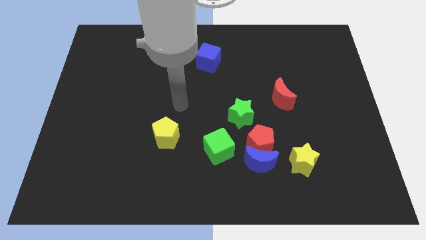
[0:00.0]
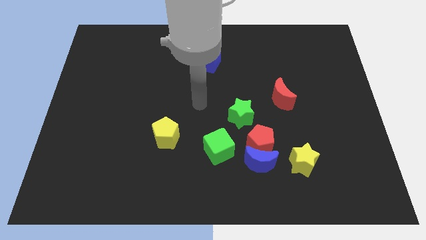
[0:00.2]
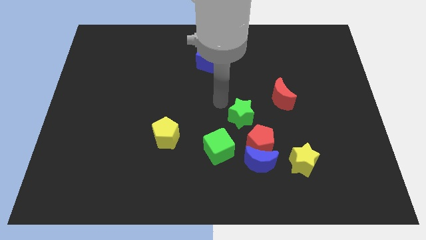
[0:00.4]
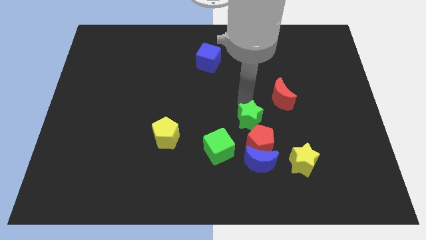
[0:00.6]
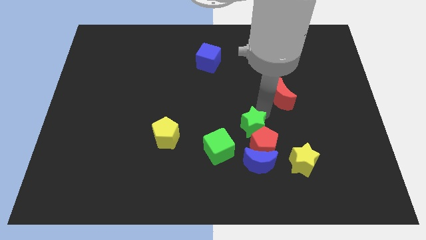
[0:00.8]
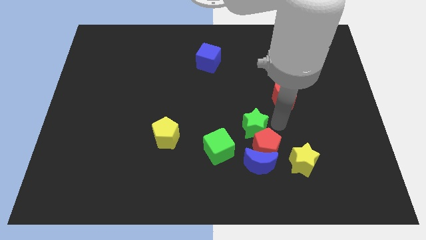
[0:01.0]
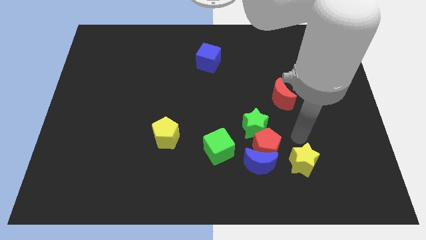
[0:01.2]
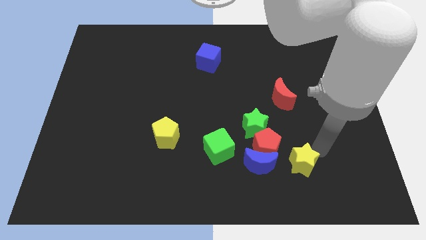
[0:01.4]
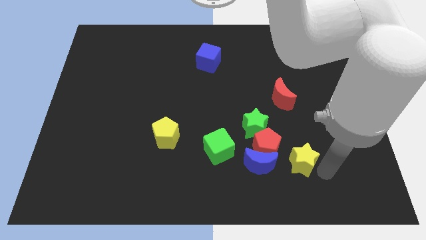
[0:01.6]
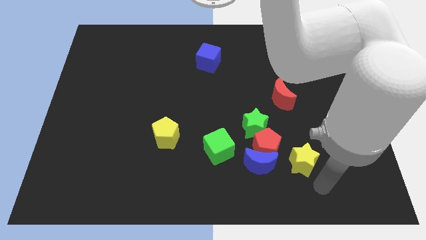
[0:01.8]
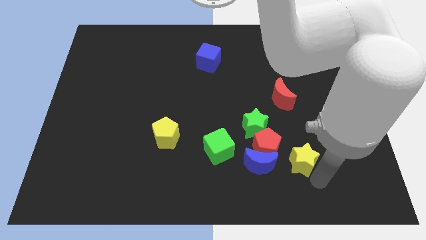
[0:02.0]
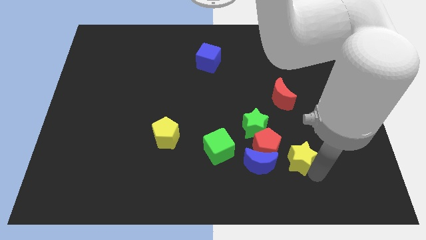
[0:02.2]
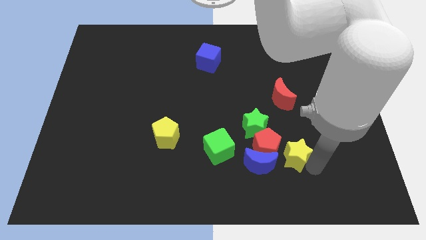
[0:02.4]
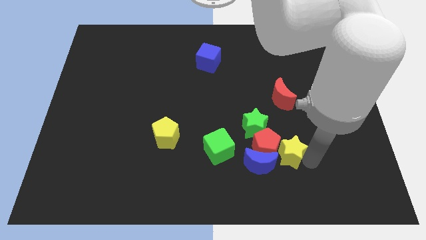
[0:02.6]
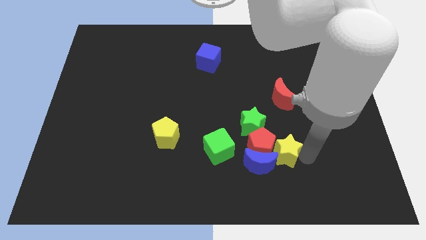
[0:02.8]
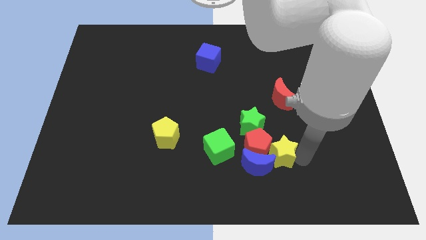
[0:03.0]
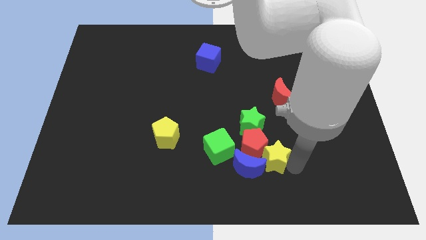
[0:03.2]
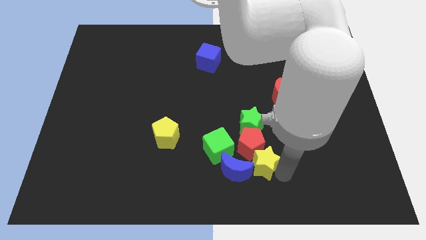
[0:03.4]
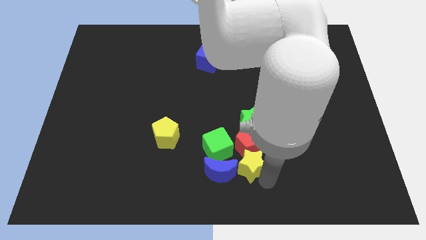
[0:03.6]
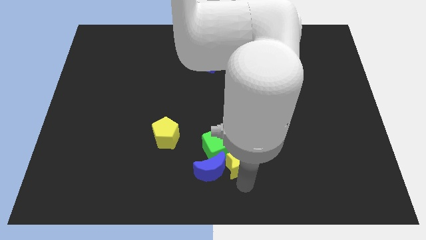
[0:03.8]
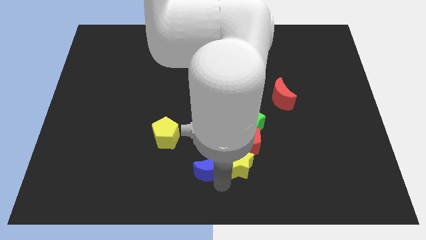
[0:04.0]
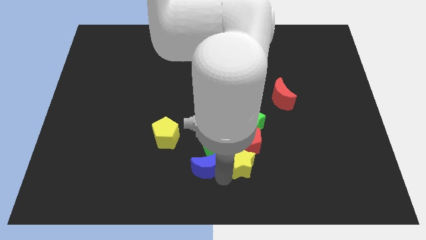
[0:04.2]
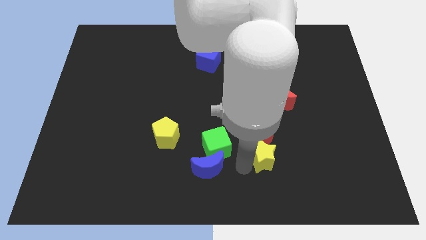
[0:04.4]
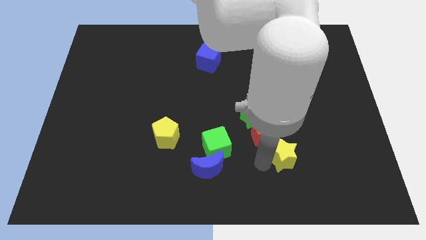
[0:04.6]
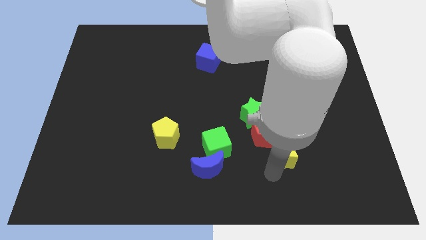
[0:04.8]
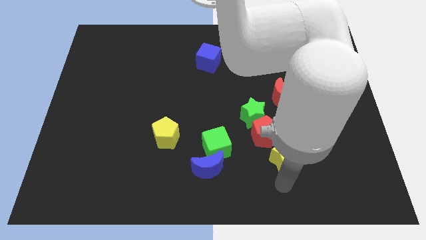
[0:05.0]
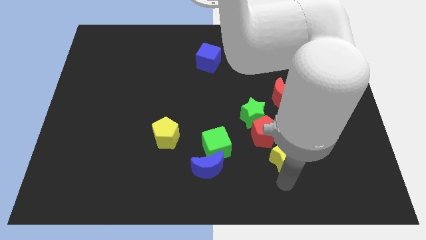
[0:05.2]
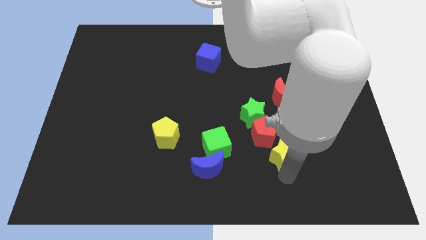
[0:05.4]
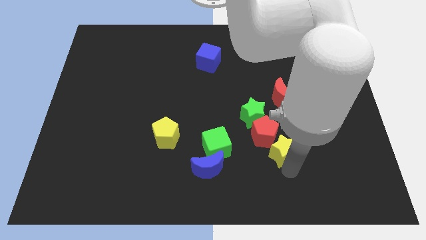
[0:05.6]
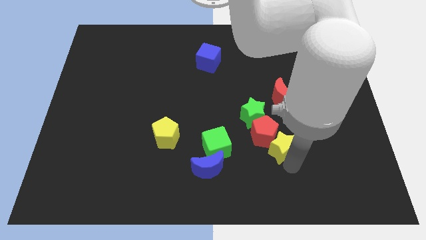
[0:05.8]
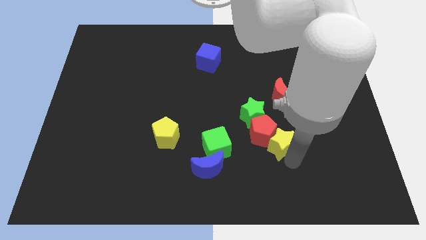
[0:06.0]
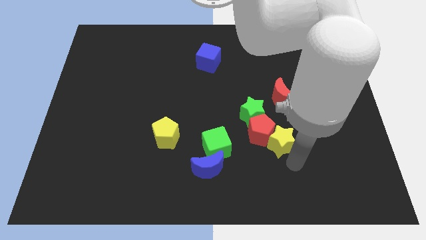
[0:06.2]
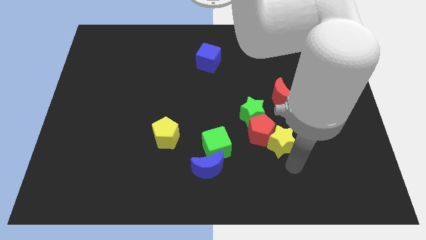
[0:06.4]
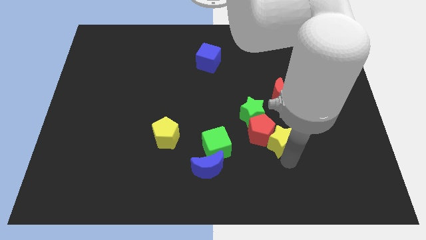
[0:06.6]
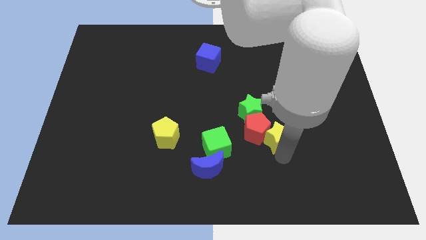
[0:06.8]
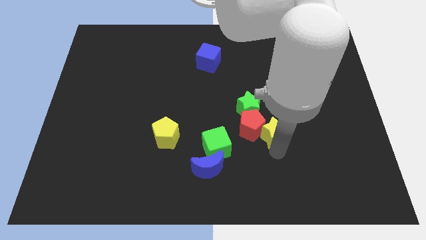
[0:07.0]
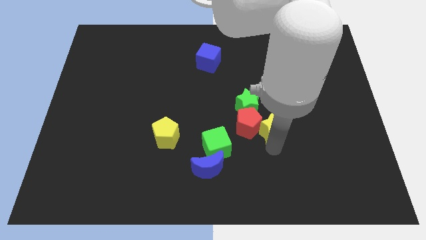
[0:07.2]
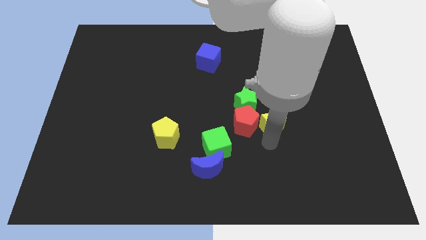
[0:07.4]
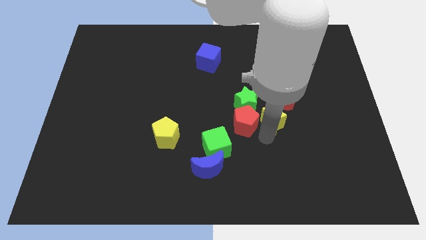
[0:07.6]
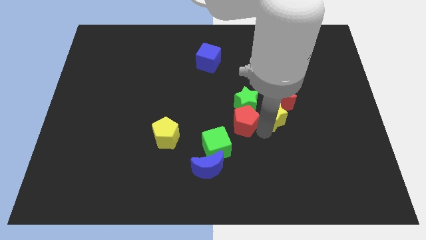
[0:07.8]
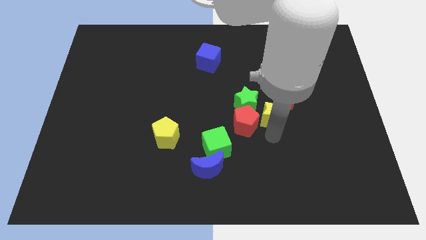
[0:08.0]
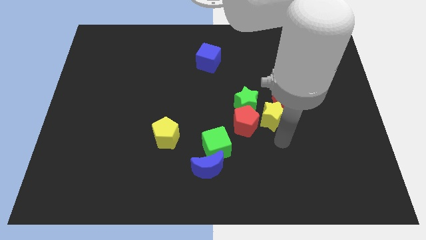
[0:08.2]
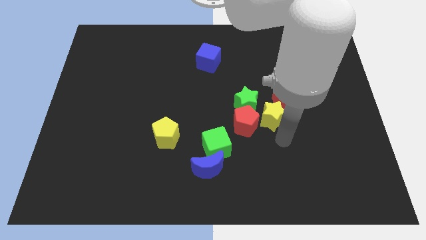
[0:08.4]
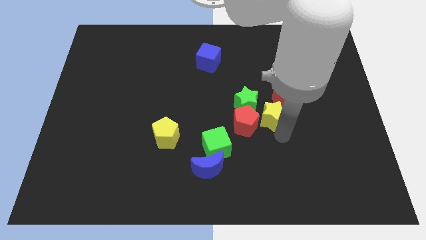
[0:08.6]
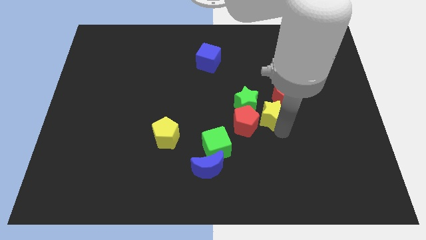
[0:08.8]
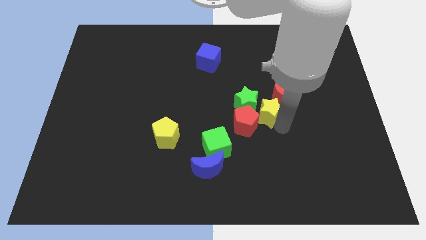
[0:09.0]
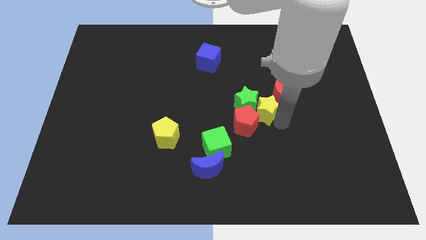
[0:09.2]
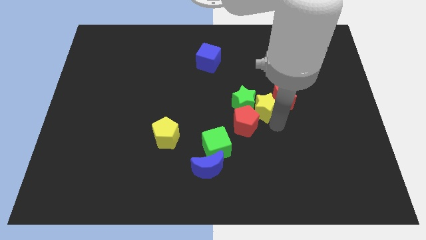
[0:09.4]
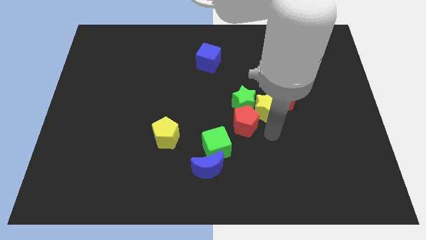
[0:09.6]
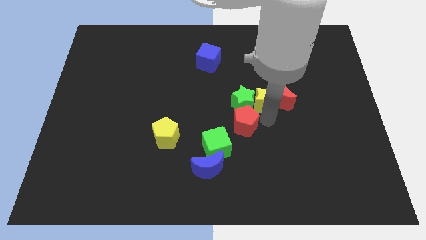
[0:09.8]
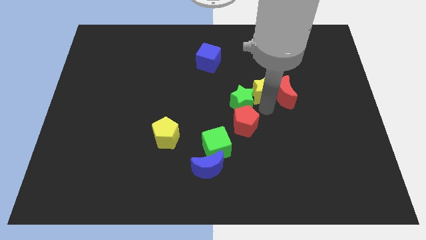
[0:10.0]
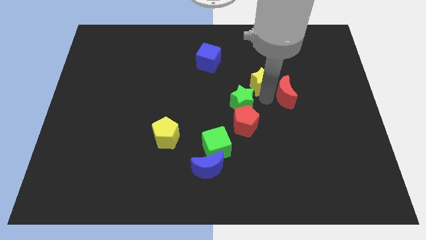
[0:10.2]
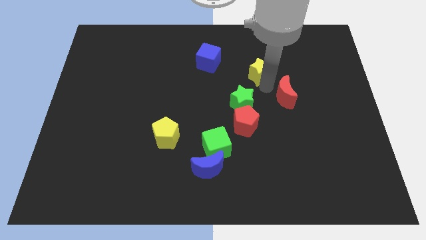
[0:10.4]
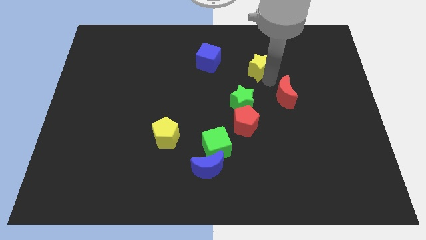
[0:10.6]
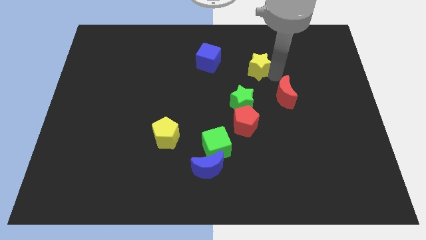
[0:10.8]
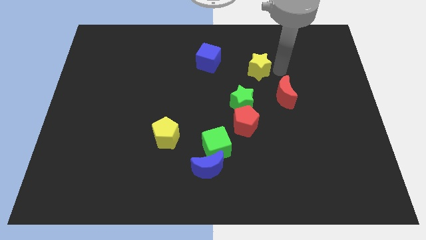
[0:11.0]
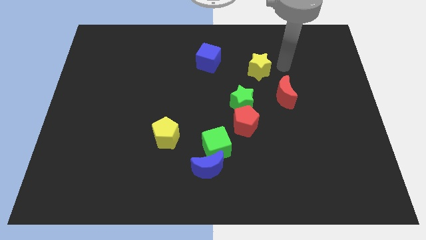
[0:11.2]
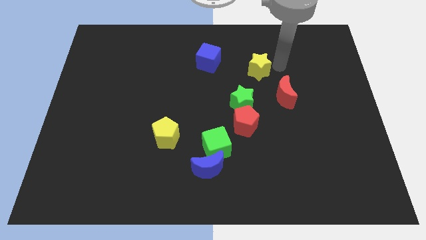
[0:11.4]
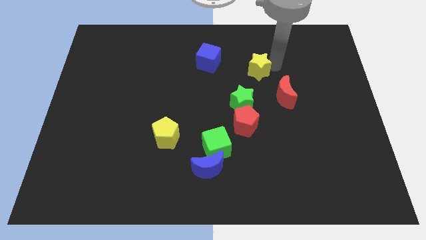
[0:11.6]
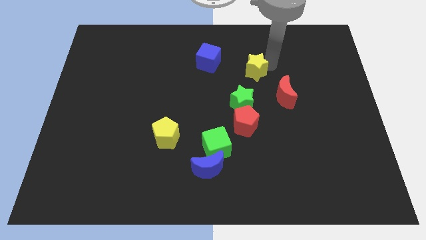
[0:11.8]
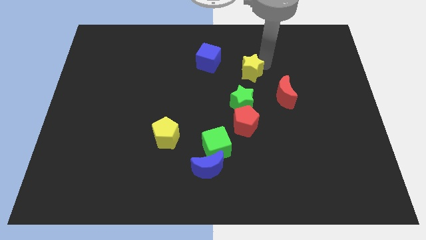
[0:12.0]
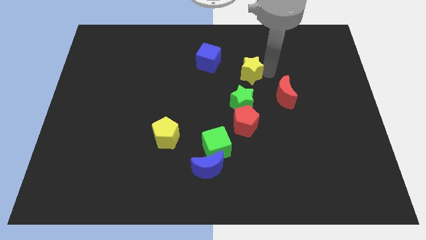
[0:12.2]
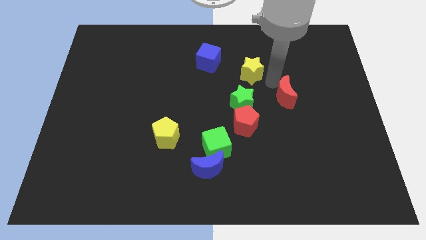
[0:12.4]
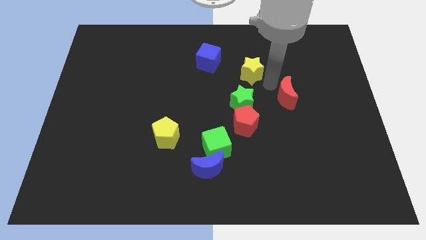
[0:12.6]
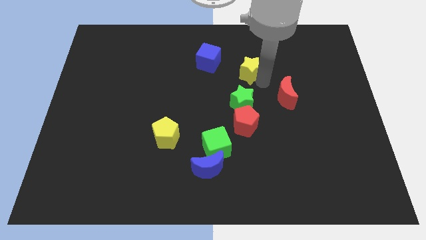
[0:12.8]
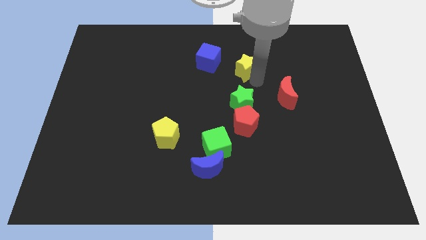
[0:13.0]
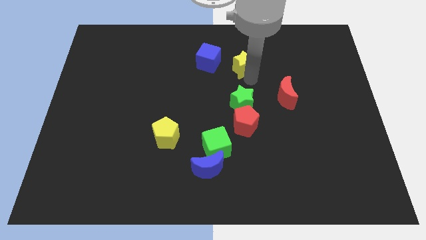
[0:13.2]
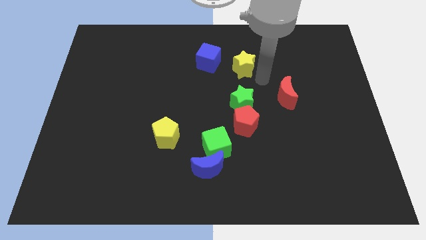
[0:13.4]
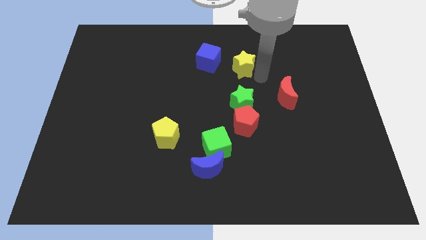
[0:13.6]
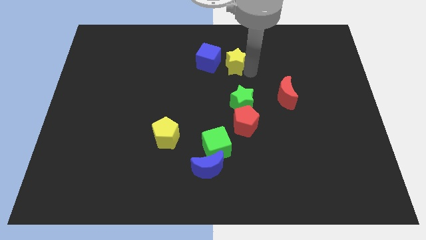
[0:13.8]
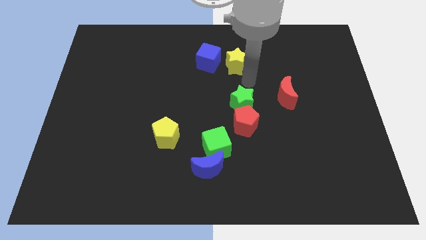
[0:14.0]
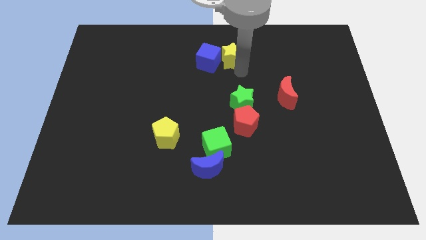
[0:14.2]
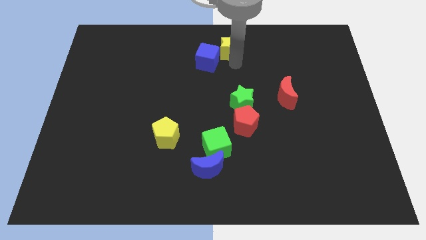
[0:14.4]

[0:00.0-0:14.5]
move the yellow star to the top

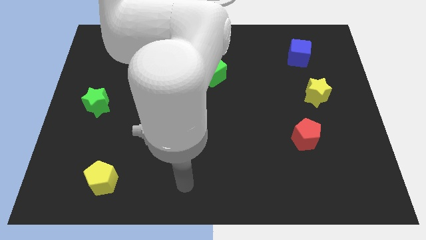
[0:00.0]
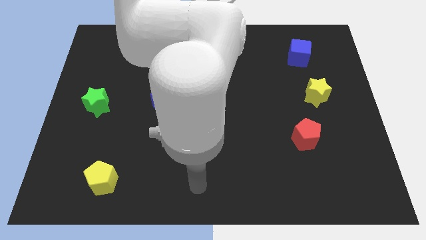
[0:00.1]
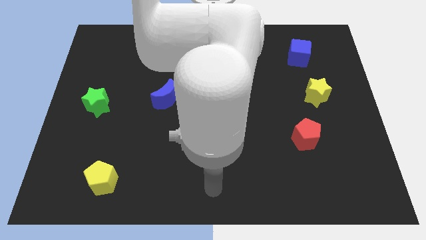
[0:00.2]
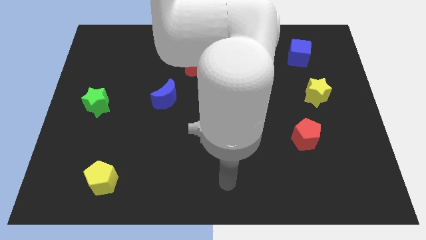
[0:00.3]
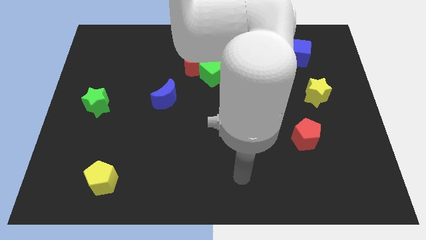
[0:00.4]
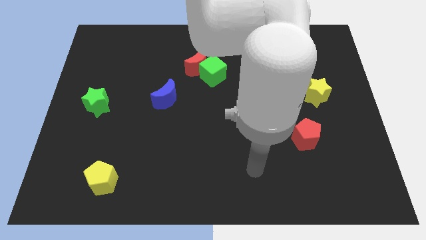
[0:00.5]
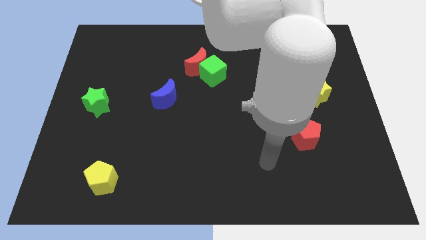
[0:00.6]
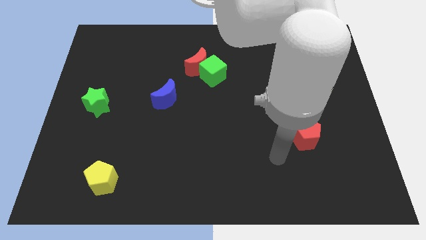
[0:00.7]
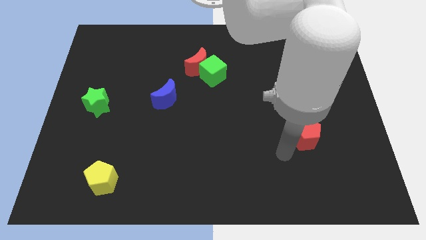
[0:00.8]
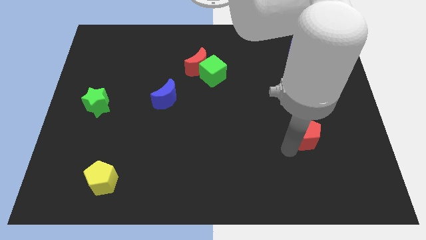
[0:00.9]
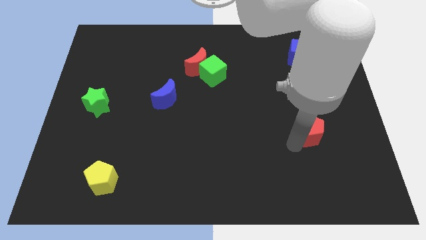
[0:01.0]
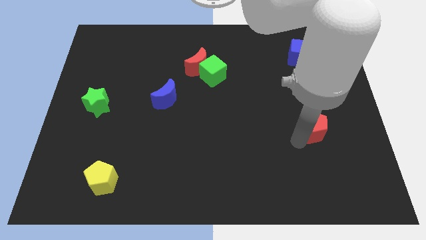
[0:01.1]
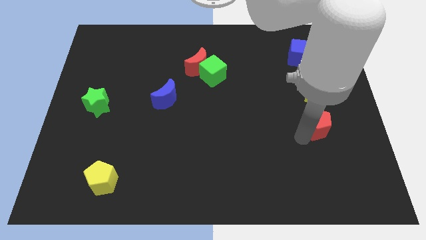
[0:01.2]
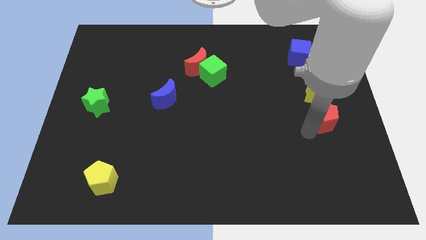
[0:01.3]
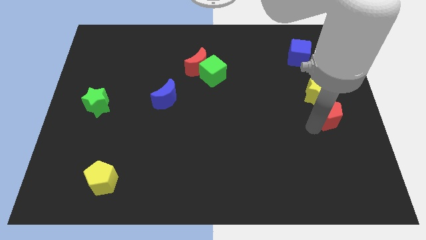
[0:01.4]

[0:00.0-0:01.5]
slide the red pentagon to the right side of the board
